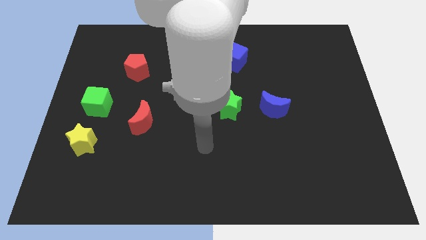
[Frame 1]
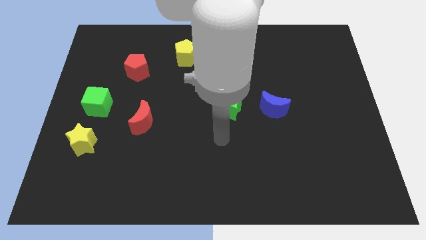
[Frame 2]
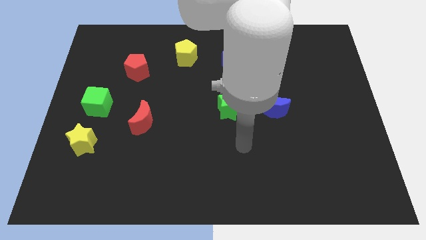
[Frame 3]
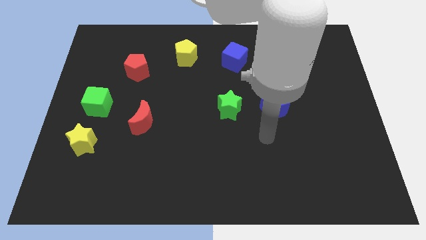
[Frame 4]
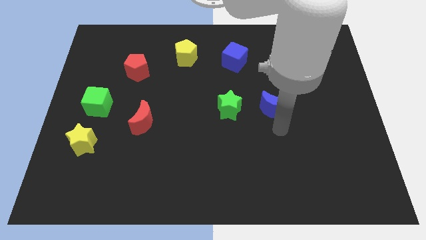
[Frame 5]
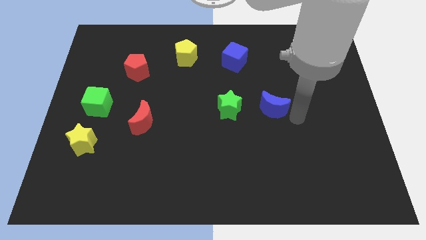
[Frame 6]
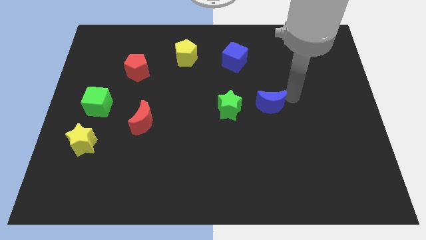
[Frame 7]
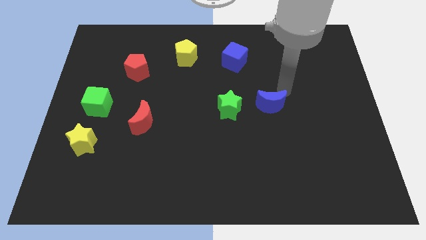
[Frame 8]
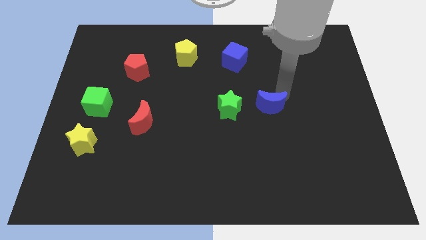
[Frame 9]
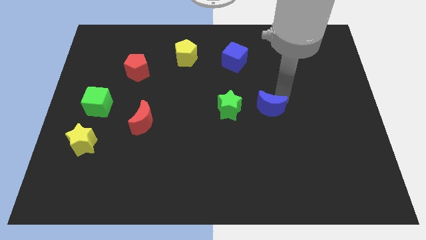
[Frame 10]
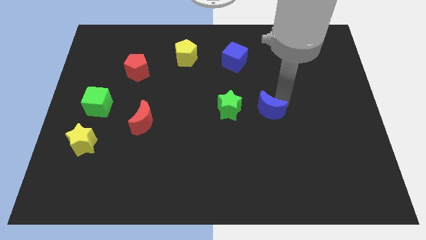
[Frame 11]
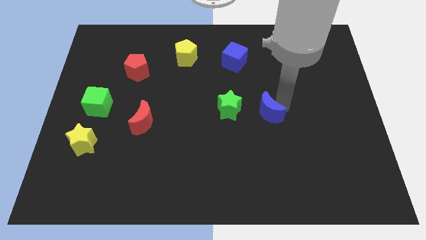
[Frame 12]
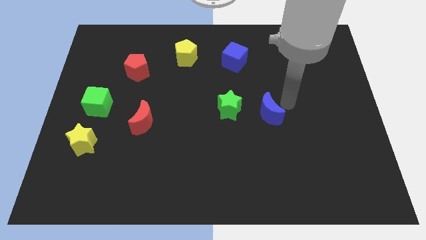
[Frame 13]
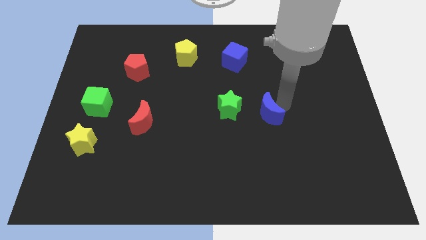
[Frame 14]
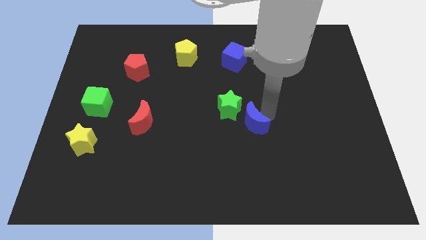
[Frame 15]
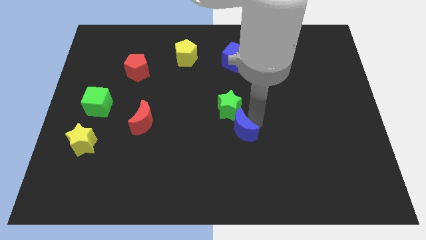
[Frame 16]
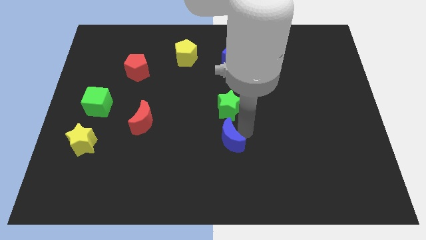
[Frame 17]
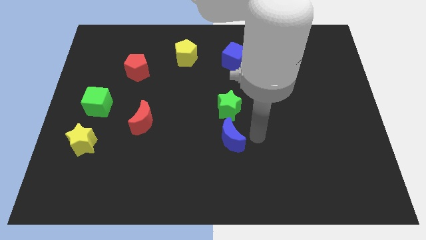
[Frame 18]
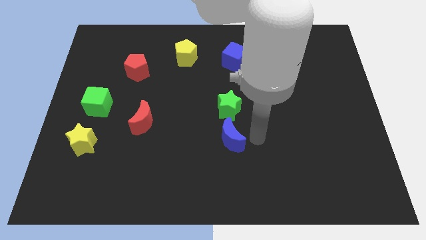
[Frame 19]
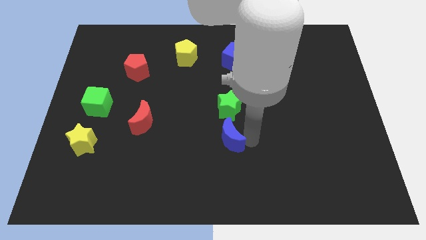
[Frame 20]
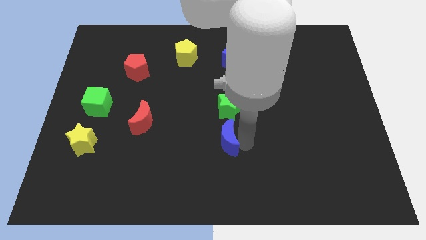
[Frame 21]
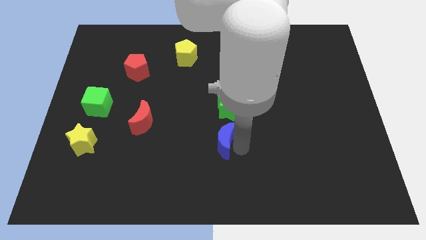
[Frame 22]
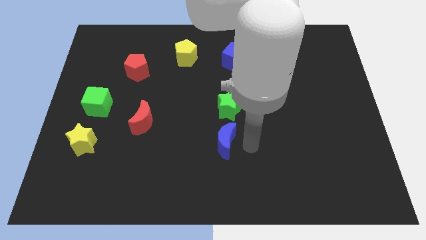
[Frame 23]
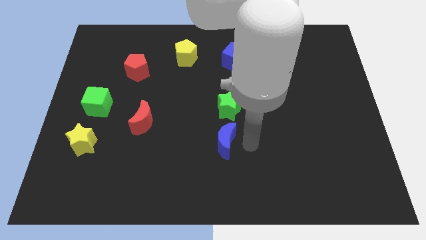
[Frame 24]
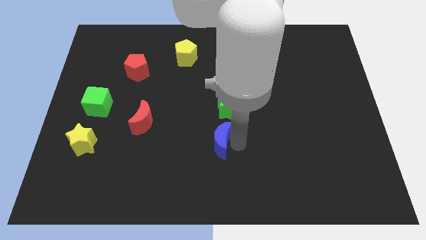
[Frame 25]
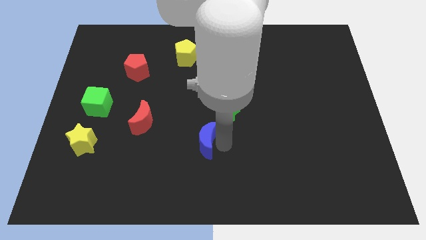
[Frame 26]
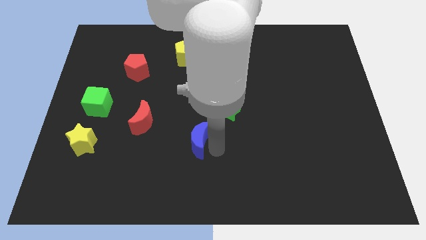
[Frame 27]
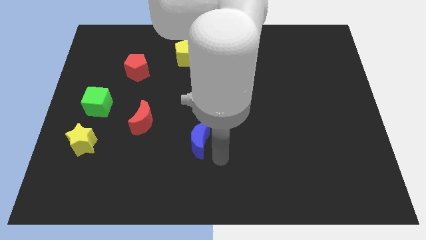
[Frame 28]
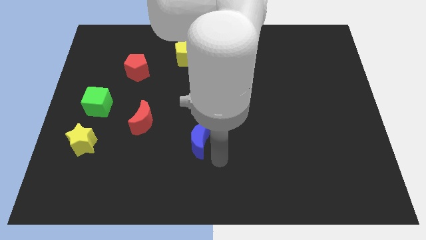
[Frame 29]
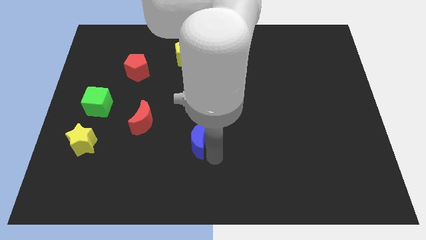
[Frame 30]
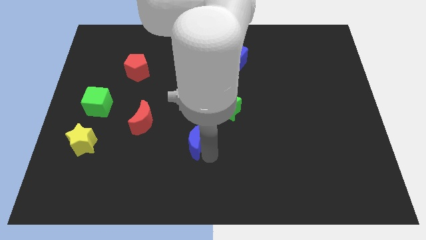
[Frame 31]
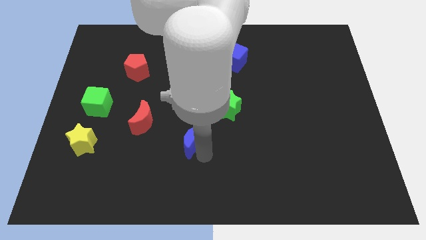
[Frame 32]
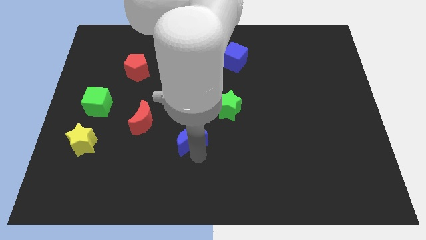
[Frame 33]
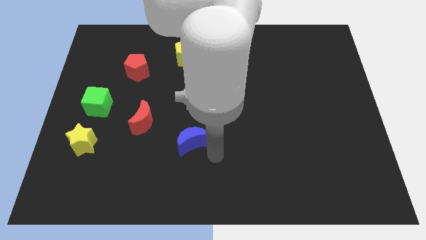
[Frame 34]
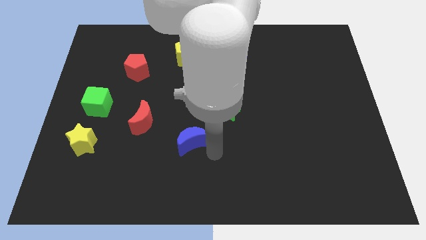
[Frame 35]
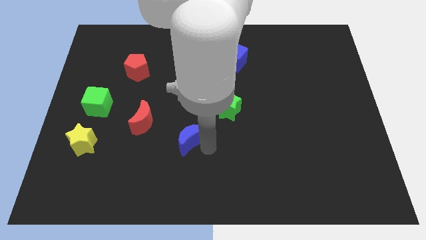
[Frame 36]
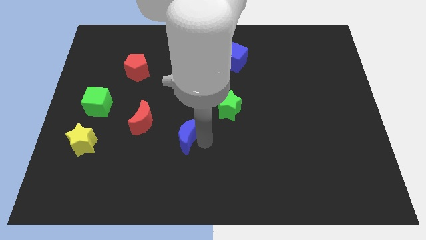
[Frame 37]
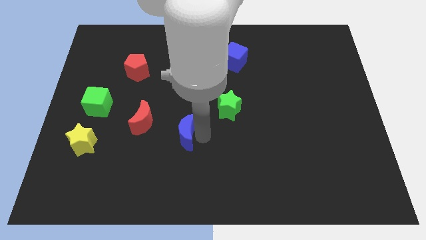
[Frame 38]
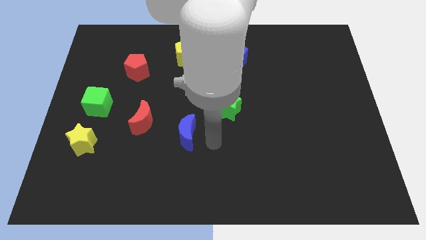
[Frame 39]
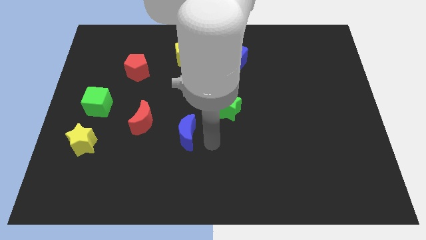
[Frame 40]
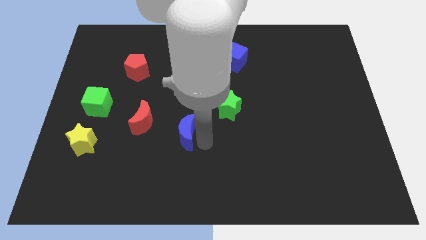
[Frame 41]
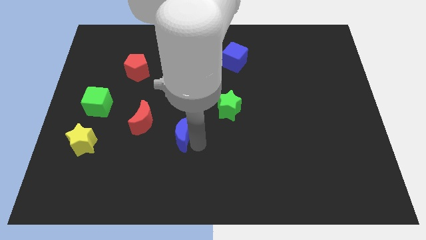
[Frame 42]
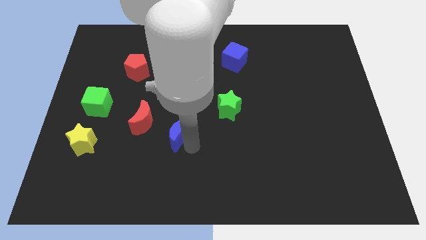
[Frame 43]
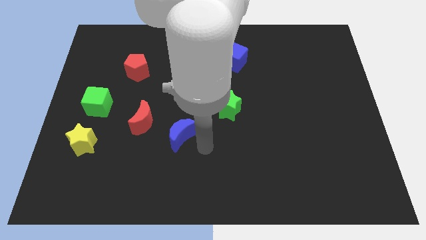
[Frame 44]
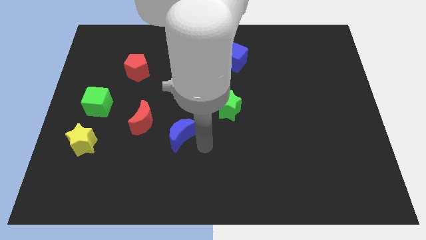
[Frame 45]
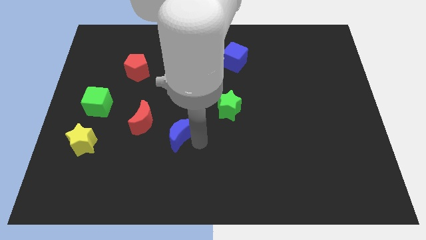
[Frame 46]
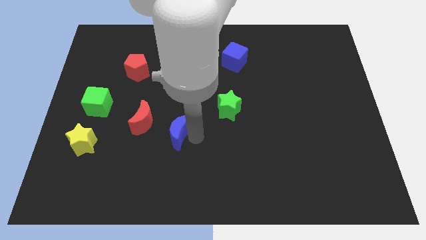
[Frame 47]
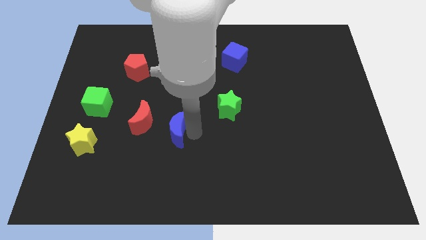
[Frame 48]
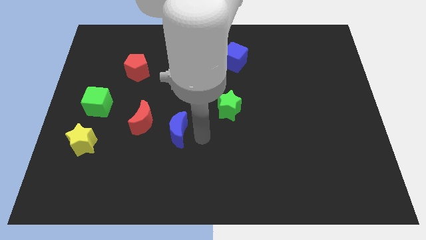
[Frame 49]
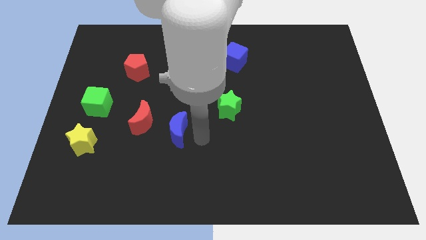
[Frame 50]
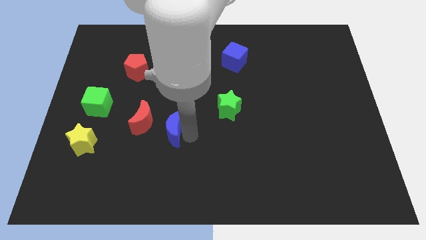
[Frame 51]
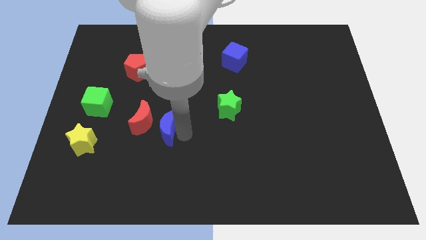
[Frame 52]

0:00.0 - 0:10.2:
put the blue moon towards the red moon

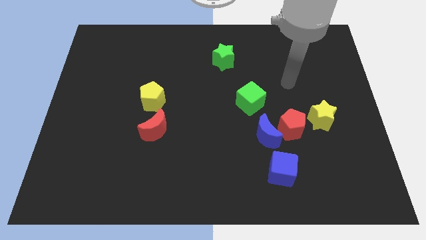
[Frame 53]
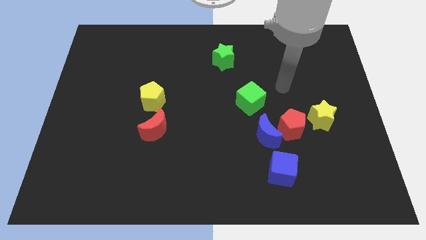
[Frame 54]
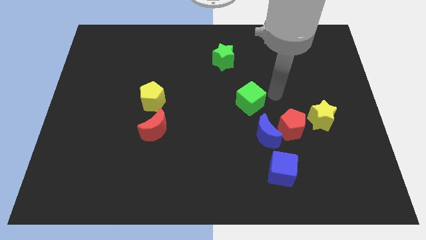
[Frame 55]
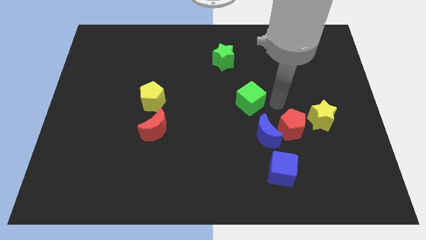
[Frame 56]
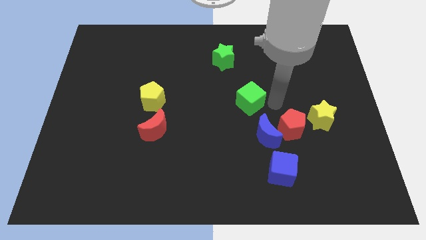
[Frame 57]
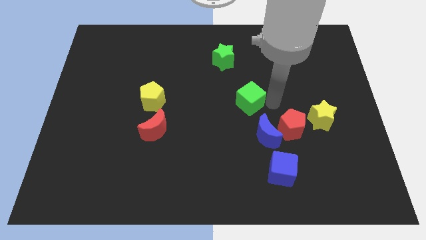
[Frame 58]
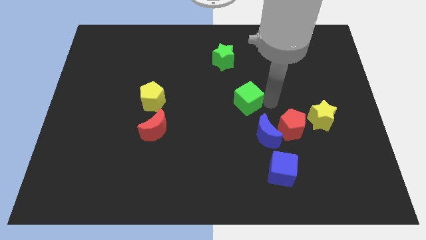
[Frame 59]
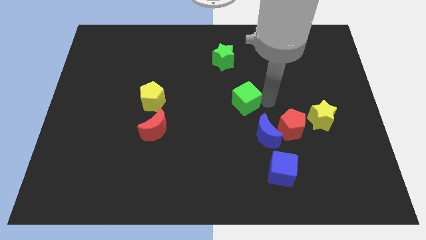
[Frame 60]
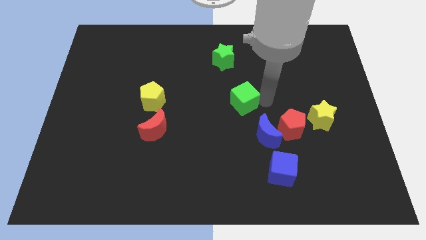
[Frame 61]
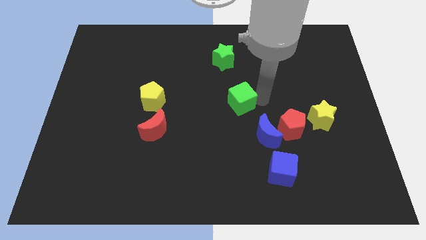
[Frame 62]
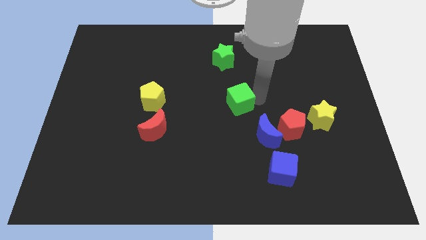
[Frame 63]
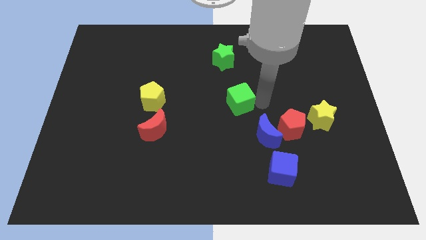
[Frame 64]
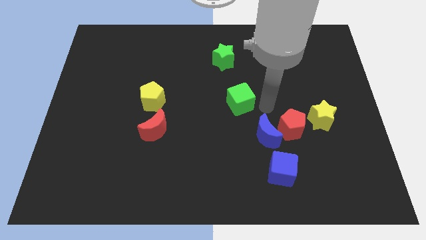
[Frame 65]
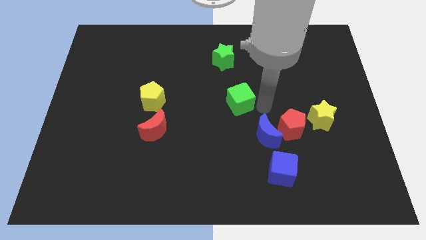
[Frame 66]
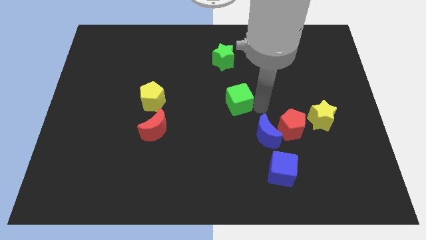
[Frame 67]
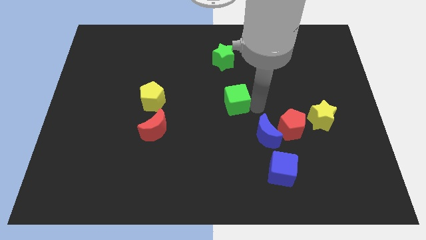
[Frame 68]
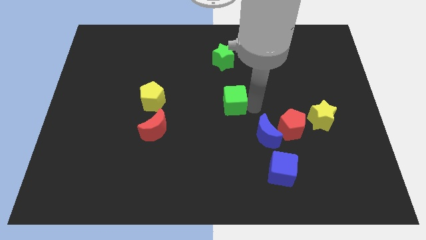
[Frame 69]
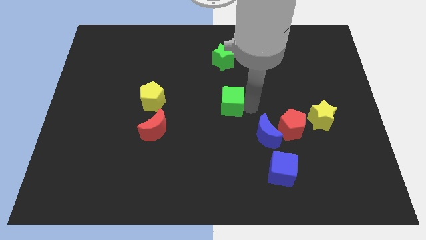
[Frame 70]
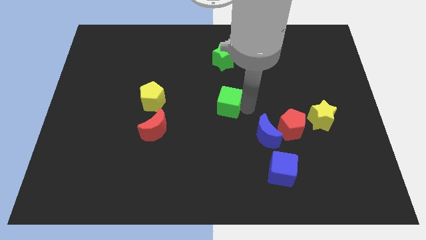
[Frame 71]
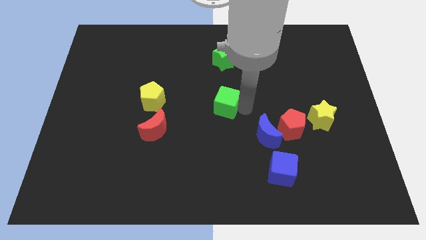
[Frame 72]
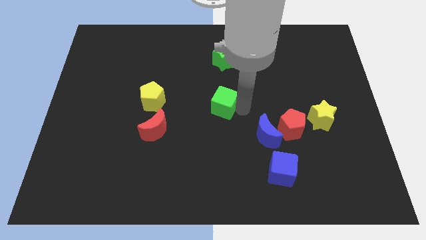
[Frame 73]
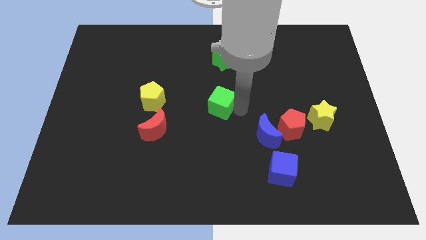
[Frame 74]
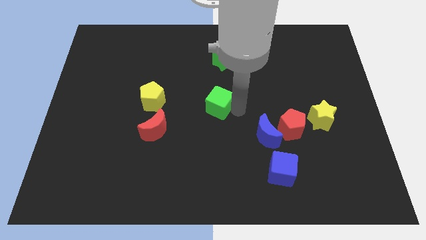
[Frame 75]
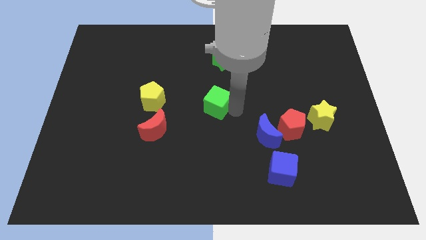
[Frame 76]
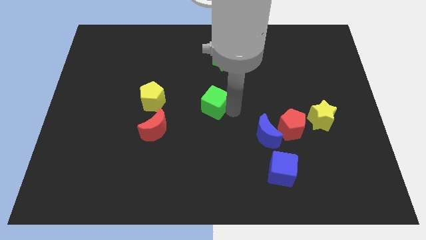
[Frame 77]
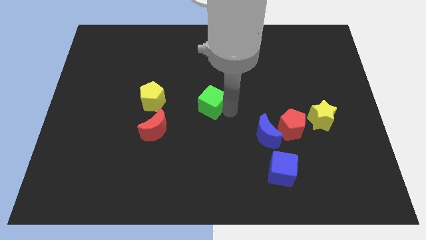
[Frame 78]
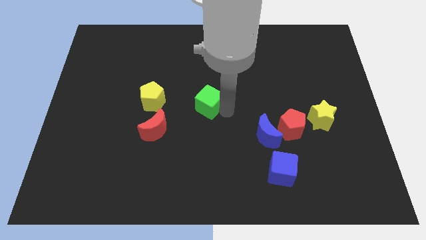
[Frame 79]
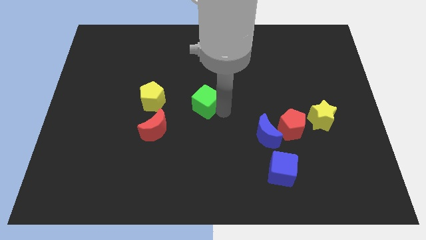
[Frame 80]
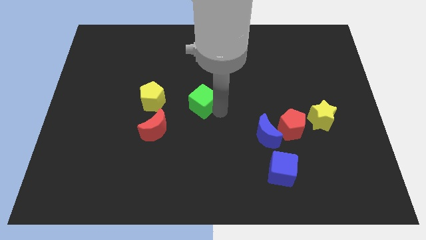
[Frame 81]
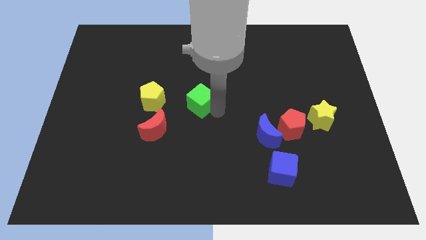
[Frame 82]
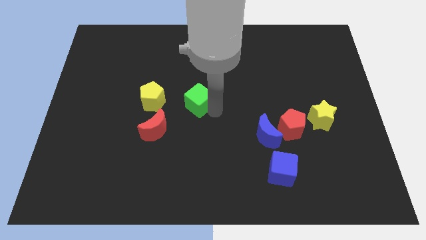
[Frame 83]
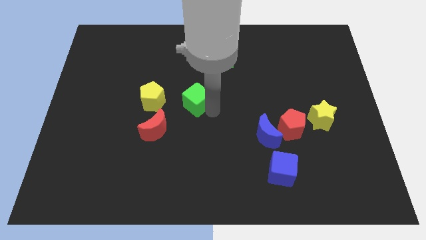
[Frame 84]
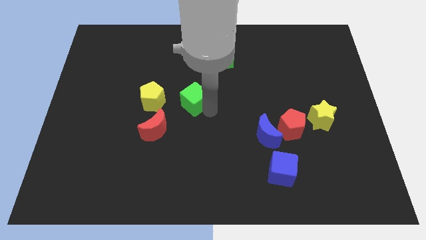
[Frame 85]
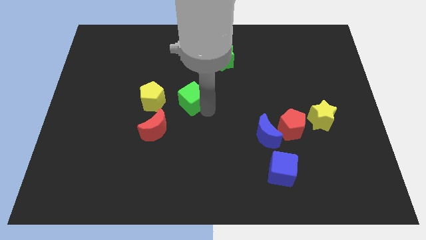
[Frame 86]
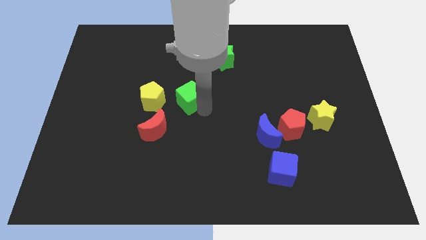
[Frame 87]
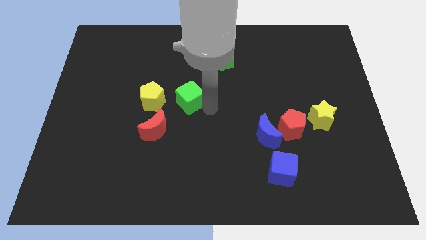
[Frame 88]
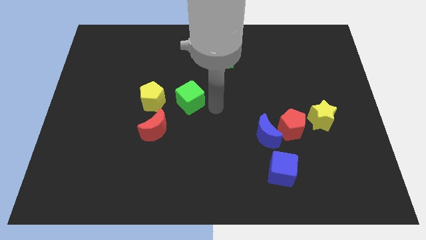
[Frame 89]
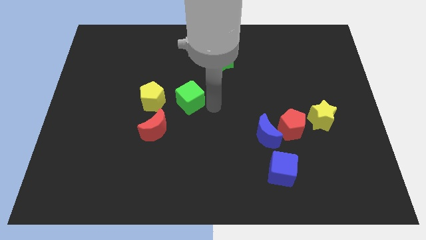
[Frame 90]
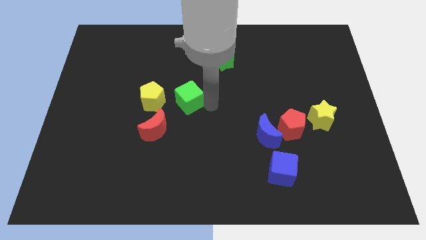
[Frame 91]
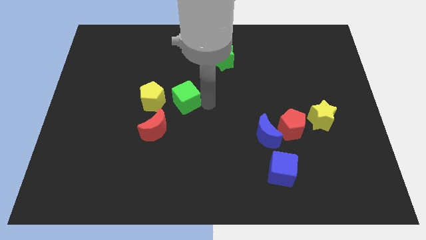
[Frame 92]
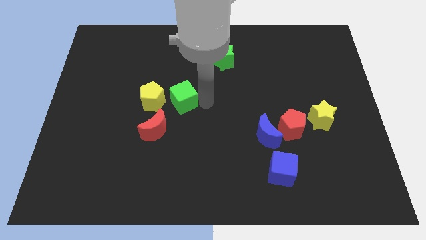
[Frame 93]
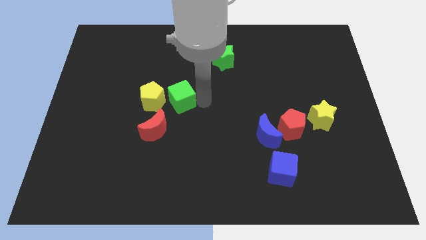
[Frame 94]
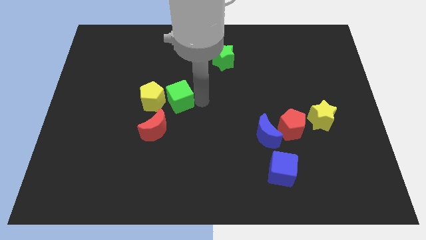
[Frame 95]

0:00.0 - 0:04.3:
move the green cube towards the yellow pentagon
